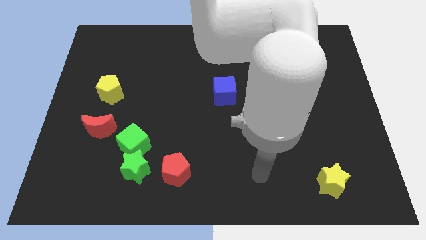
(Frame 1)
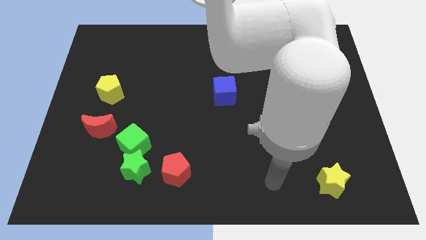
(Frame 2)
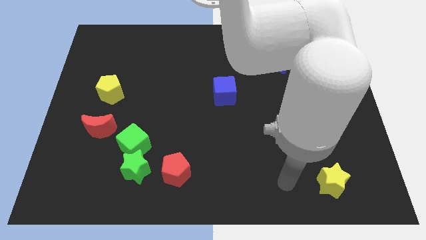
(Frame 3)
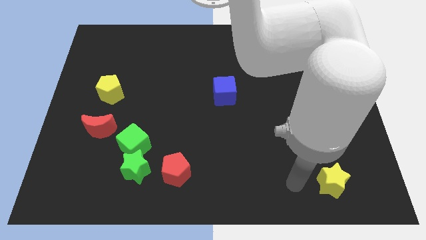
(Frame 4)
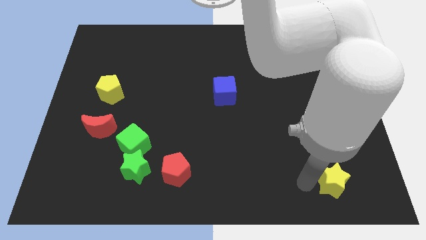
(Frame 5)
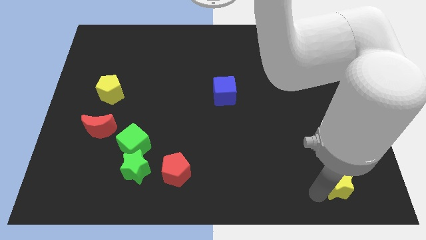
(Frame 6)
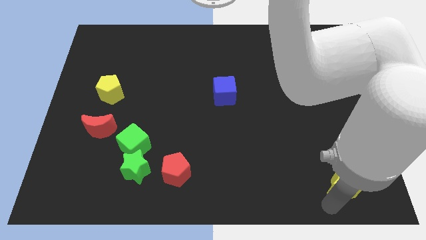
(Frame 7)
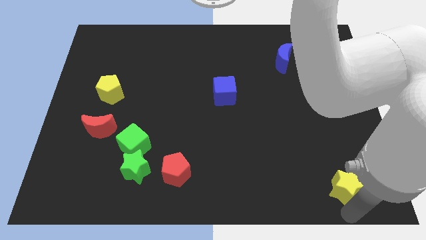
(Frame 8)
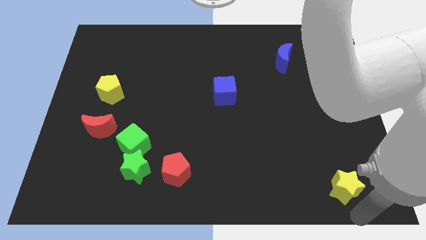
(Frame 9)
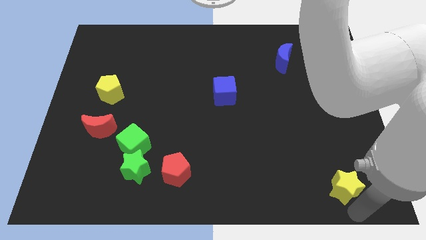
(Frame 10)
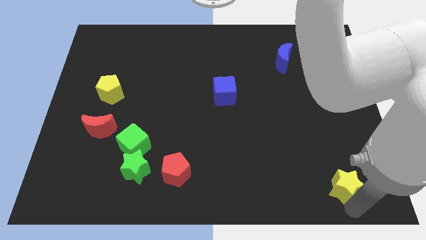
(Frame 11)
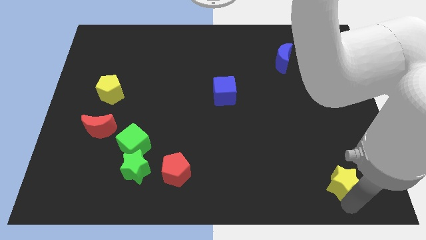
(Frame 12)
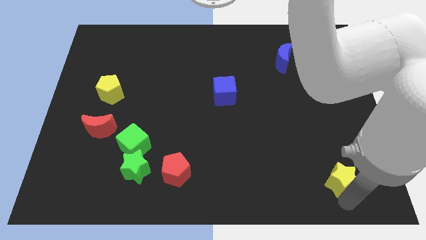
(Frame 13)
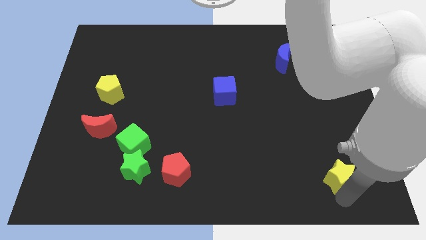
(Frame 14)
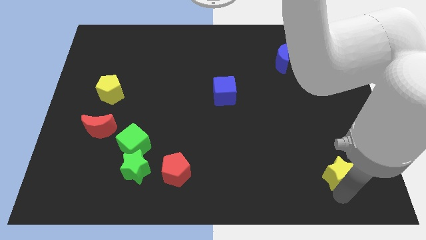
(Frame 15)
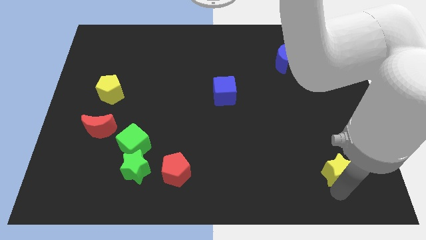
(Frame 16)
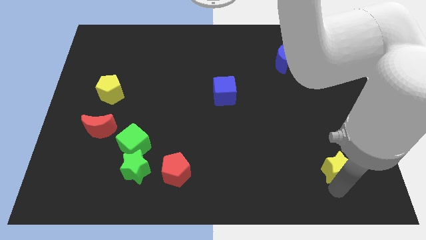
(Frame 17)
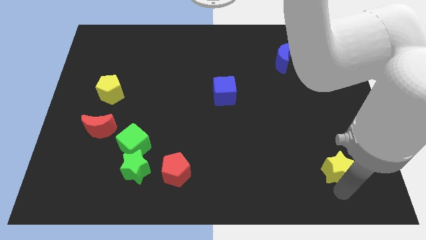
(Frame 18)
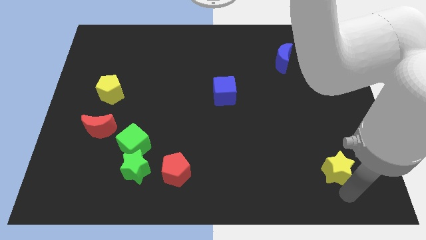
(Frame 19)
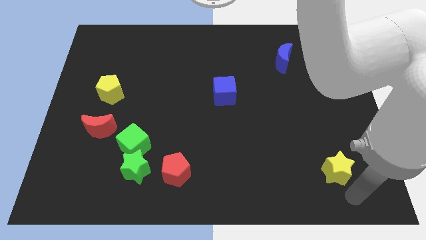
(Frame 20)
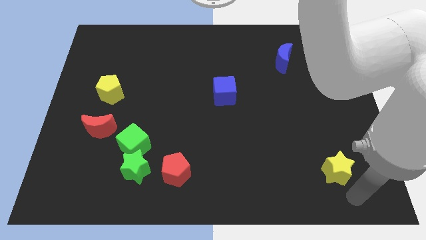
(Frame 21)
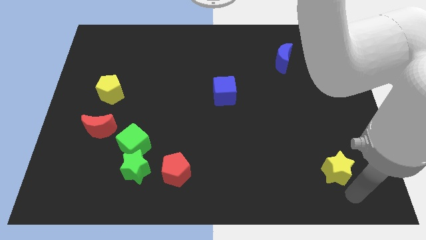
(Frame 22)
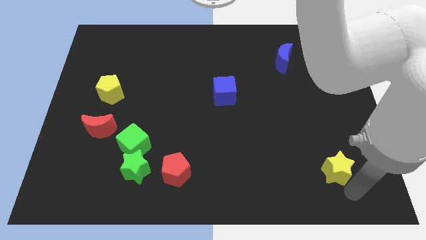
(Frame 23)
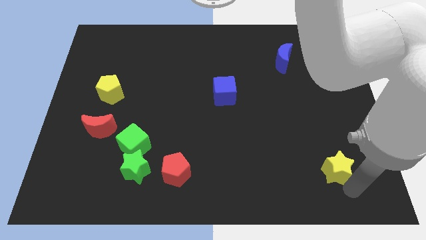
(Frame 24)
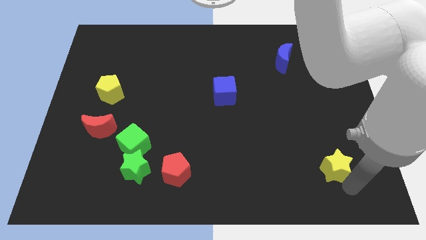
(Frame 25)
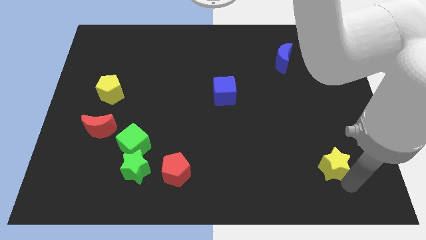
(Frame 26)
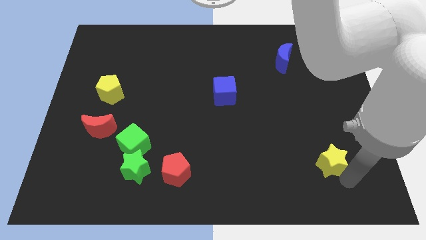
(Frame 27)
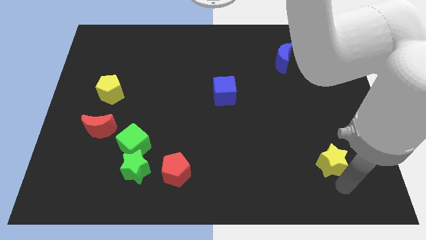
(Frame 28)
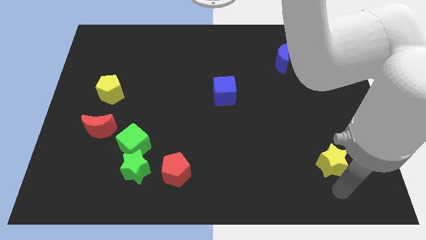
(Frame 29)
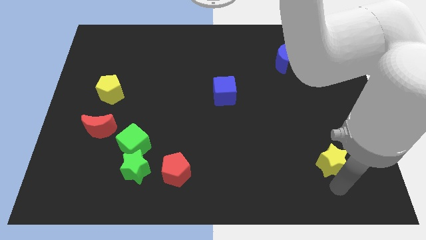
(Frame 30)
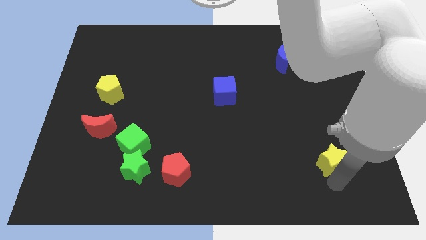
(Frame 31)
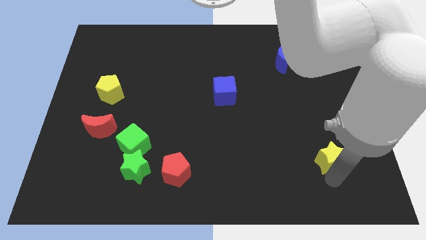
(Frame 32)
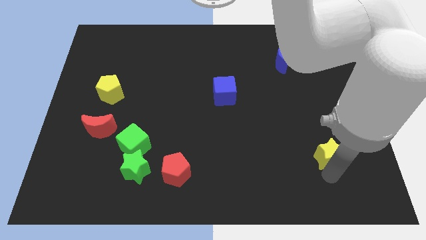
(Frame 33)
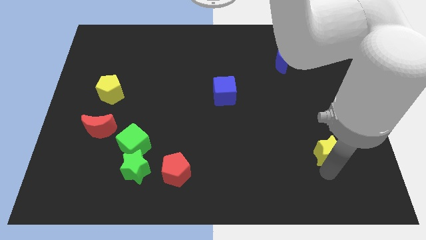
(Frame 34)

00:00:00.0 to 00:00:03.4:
push the yellow star upwards somewhat

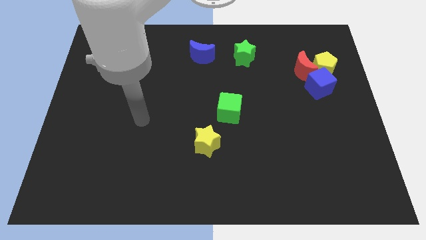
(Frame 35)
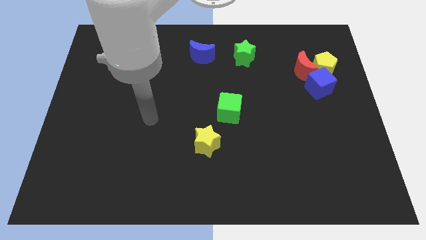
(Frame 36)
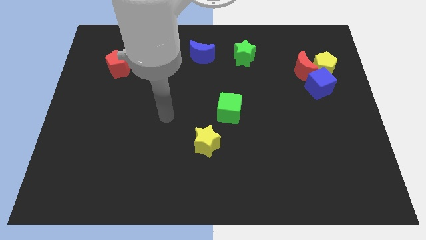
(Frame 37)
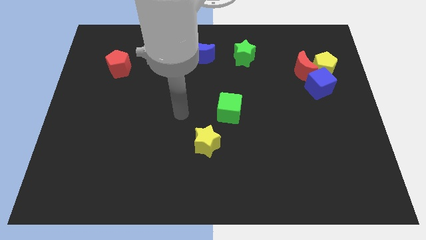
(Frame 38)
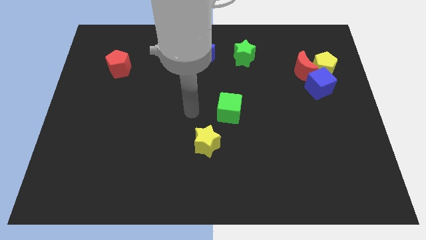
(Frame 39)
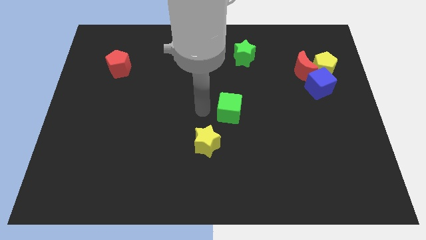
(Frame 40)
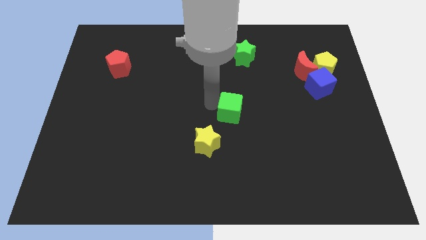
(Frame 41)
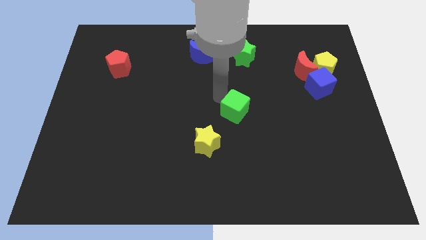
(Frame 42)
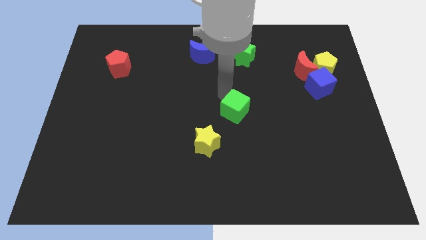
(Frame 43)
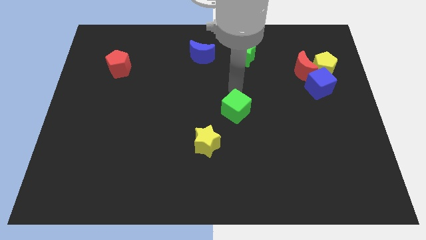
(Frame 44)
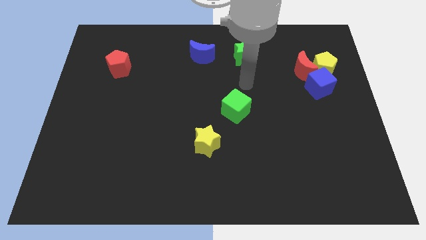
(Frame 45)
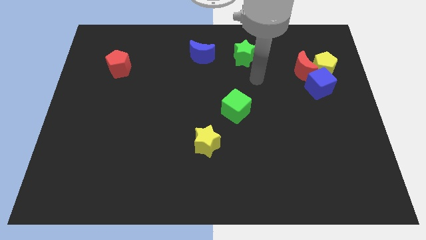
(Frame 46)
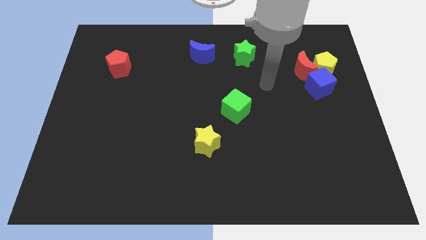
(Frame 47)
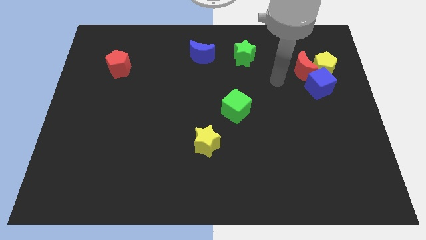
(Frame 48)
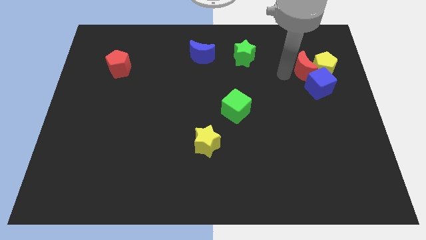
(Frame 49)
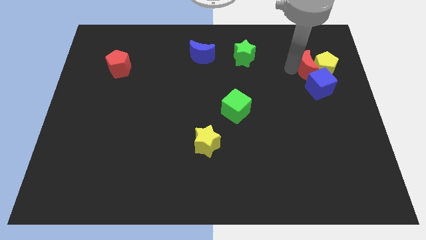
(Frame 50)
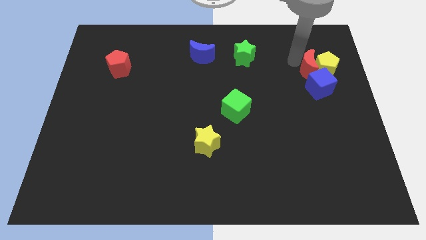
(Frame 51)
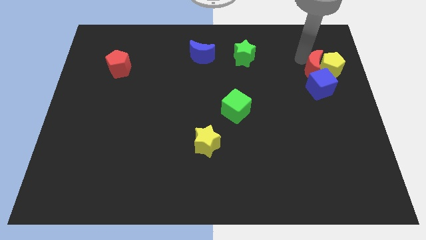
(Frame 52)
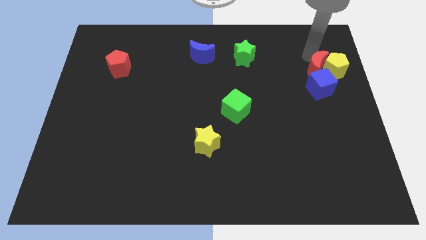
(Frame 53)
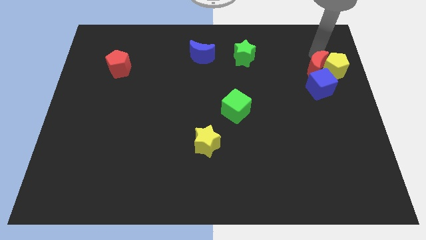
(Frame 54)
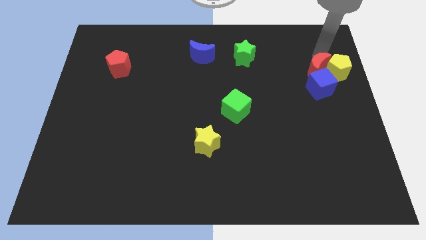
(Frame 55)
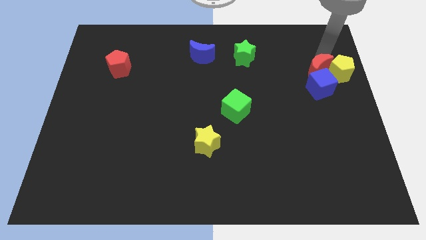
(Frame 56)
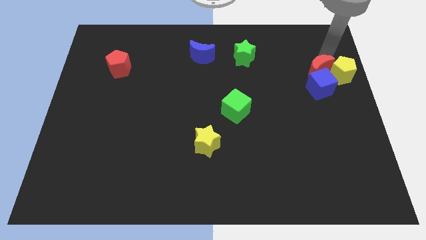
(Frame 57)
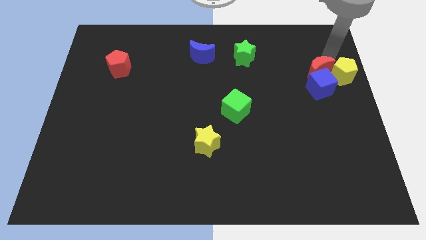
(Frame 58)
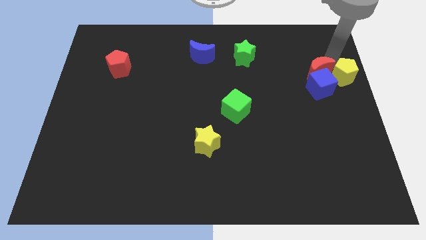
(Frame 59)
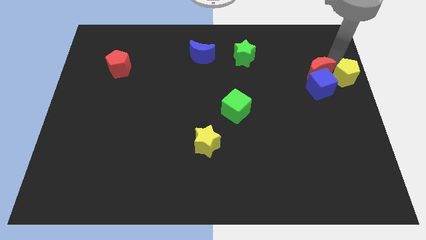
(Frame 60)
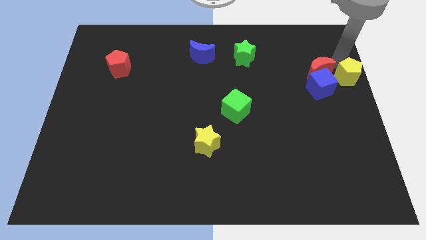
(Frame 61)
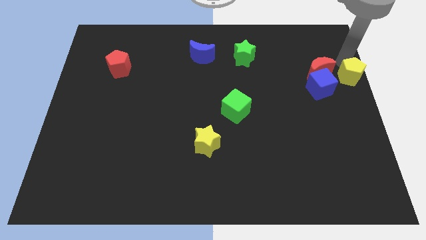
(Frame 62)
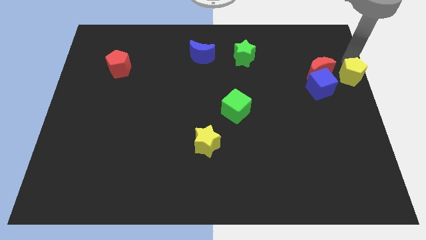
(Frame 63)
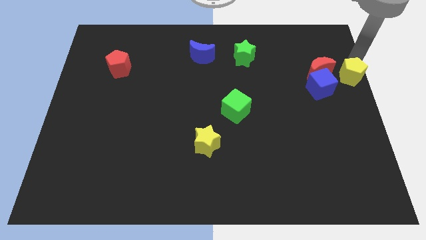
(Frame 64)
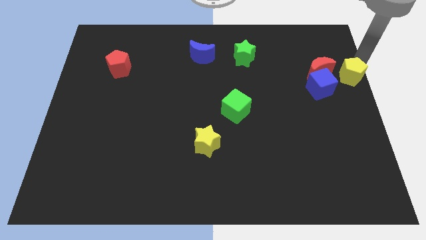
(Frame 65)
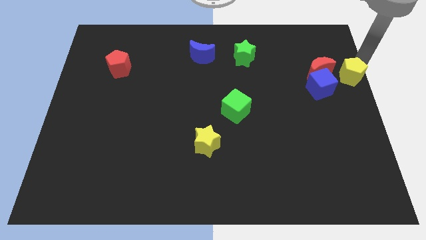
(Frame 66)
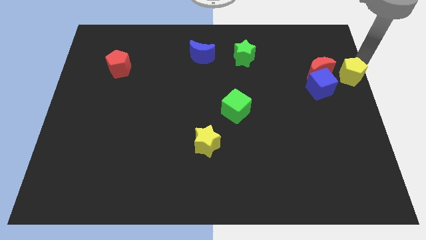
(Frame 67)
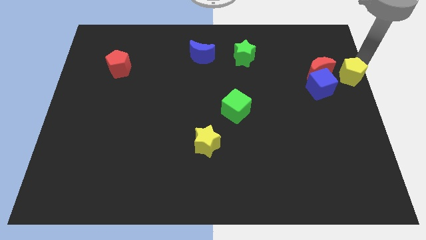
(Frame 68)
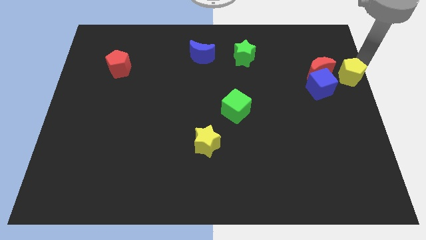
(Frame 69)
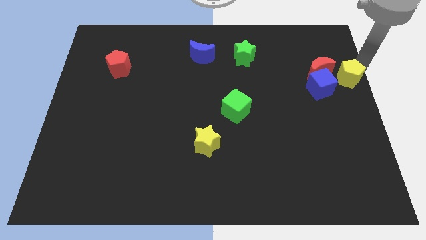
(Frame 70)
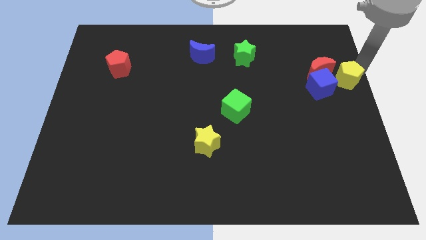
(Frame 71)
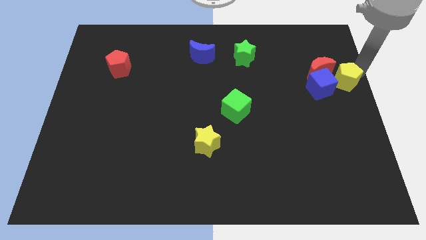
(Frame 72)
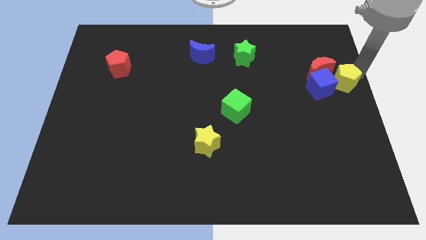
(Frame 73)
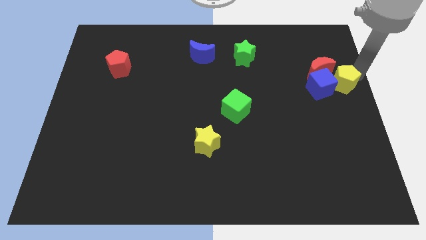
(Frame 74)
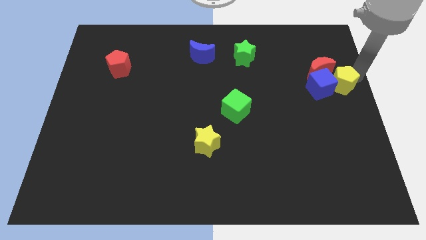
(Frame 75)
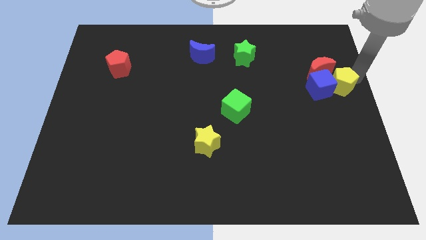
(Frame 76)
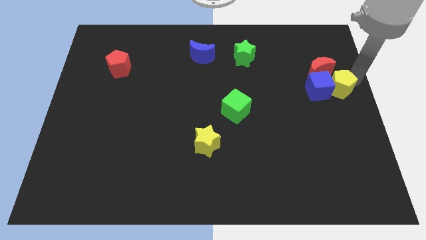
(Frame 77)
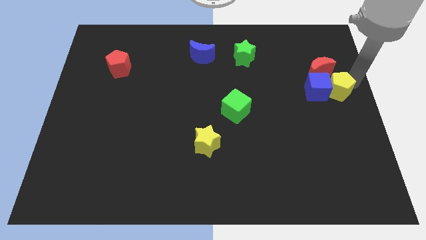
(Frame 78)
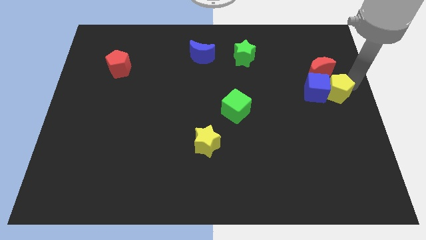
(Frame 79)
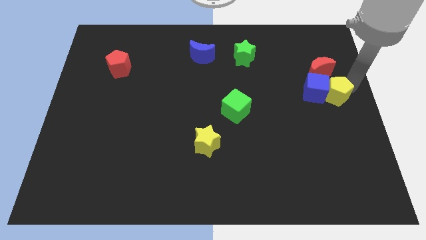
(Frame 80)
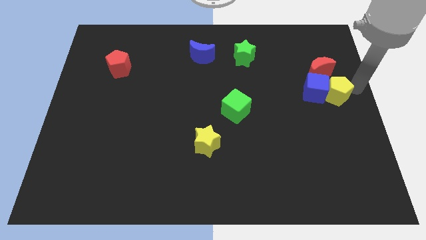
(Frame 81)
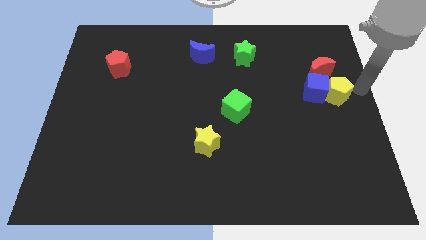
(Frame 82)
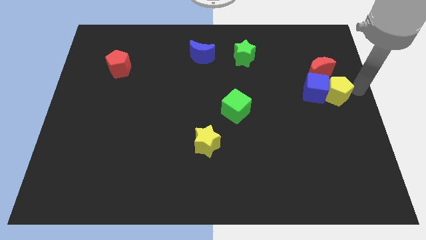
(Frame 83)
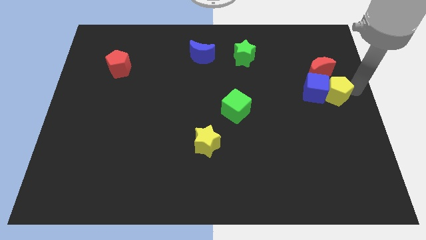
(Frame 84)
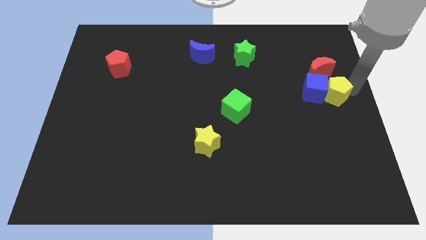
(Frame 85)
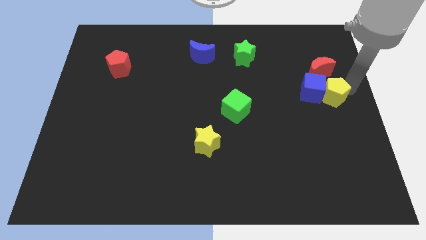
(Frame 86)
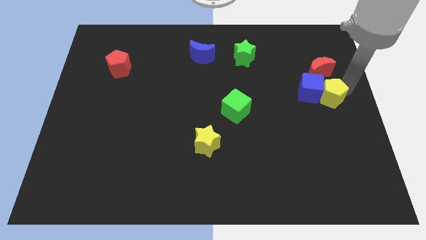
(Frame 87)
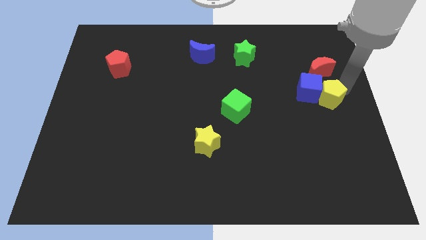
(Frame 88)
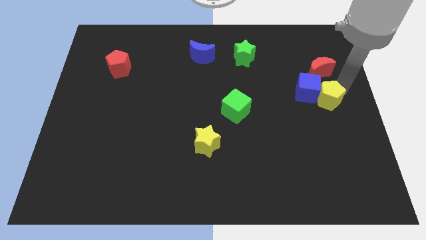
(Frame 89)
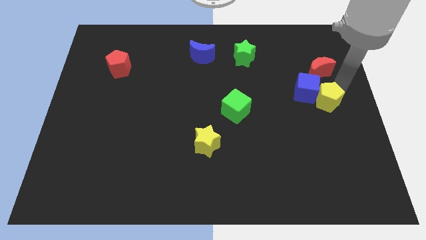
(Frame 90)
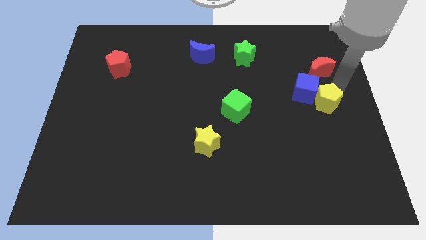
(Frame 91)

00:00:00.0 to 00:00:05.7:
slide the yellow pentagon a bit downwards and to the left
